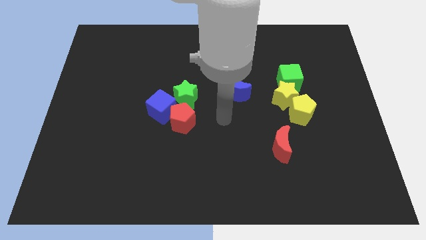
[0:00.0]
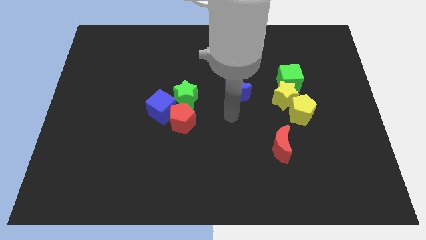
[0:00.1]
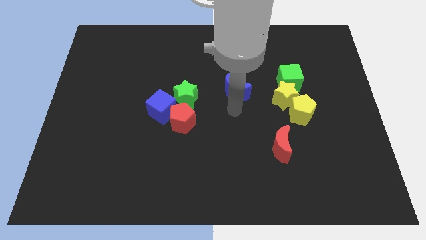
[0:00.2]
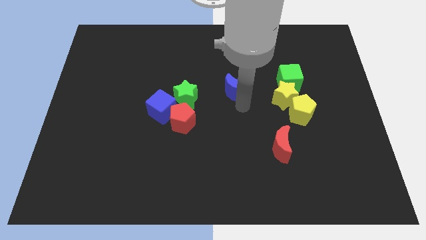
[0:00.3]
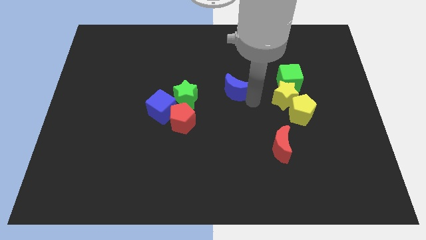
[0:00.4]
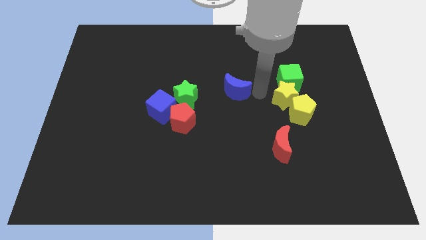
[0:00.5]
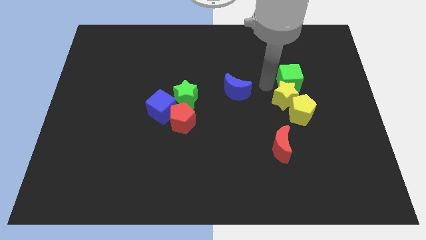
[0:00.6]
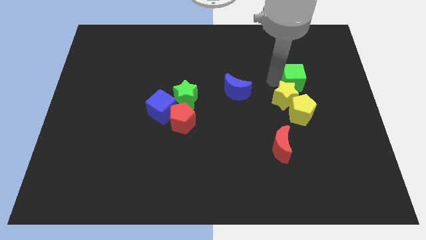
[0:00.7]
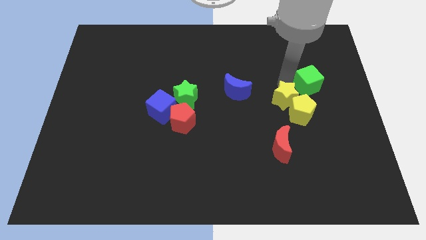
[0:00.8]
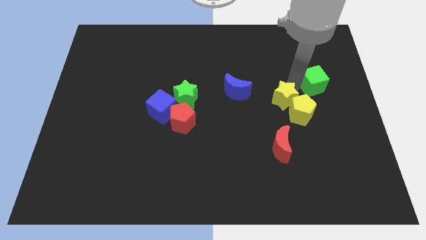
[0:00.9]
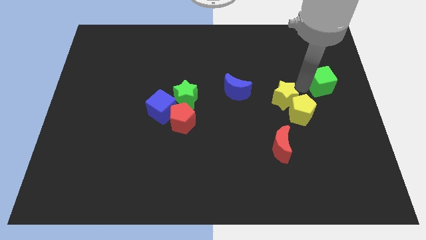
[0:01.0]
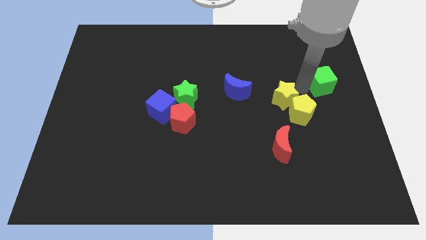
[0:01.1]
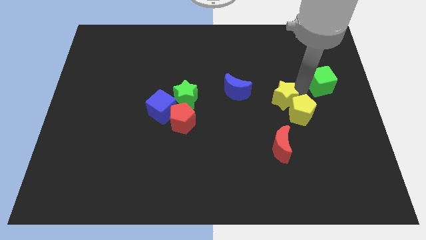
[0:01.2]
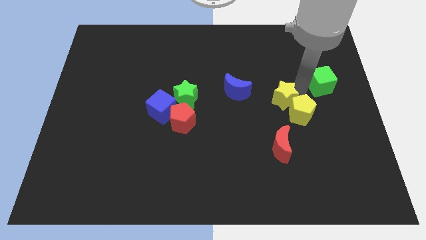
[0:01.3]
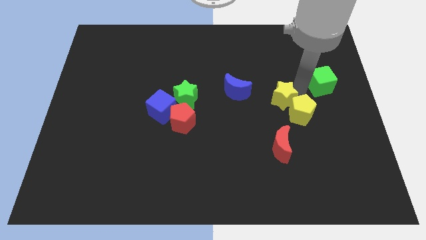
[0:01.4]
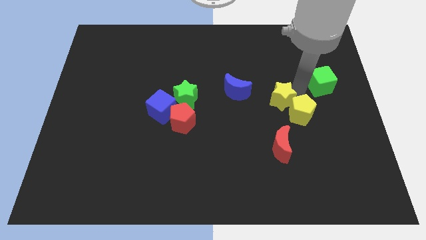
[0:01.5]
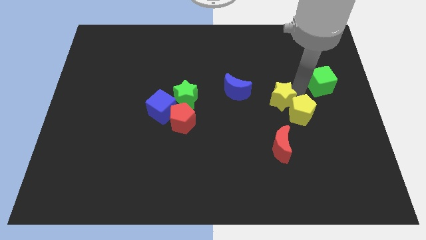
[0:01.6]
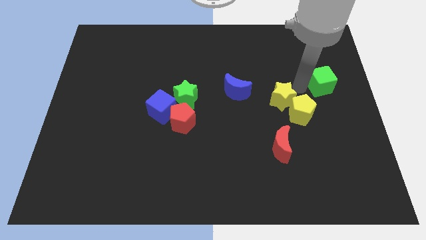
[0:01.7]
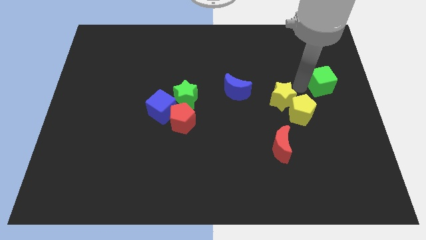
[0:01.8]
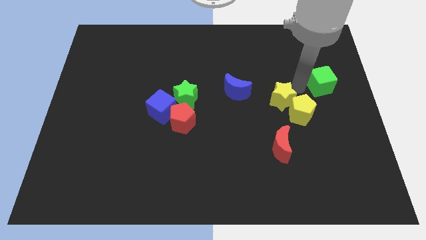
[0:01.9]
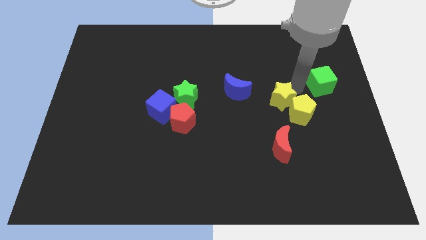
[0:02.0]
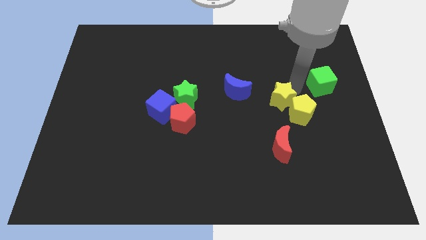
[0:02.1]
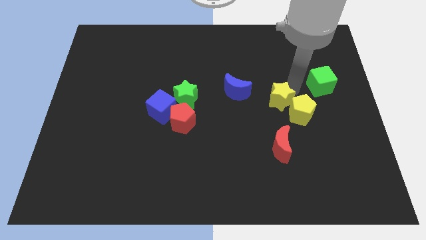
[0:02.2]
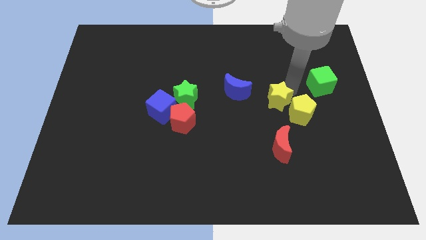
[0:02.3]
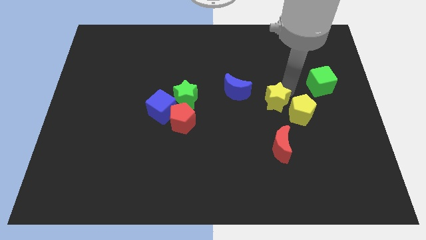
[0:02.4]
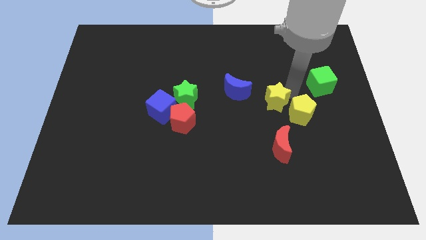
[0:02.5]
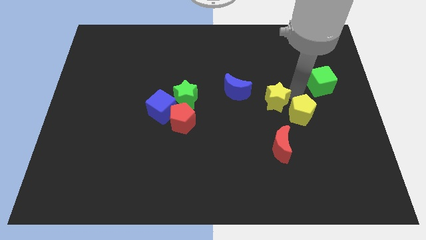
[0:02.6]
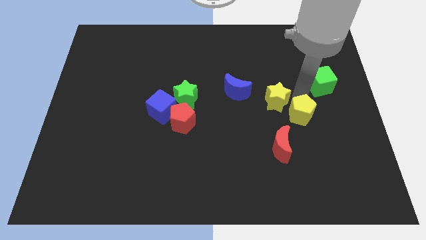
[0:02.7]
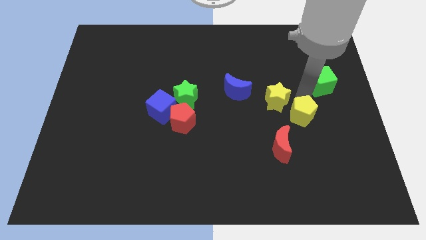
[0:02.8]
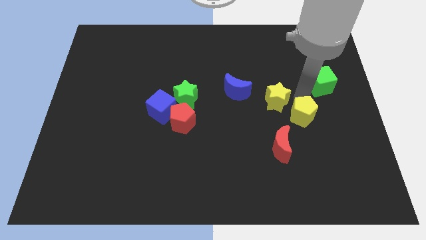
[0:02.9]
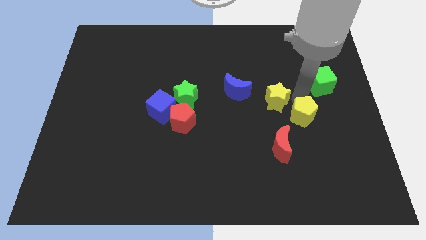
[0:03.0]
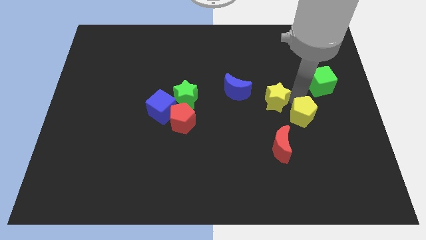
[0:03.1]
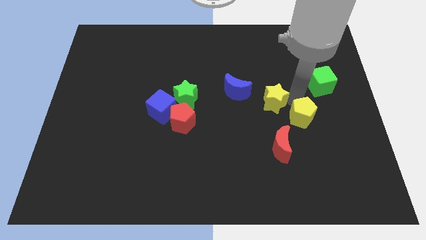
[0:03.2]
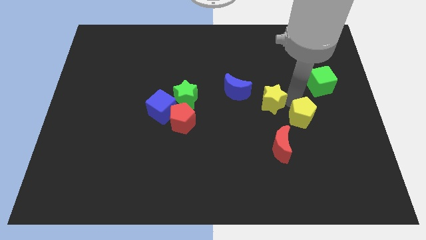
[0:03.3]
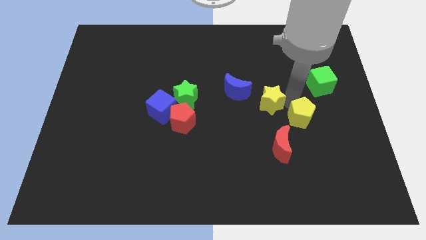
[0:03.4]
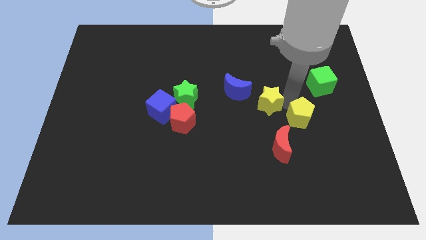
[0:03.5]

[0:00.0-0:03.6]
move the yellow star away from the yellow pentagon and green cube

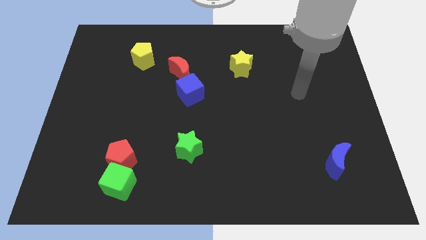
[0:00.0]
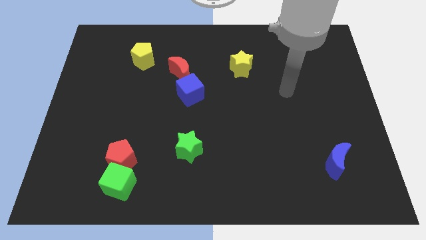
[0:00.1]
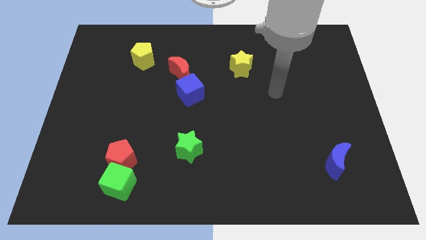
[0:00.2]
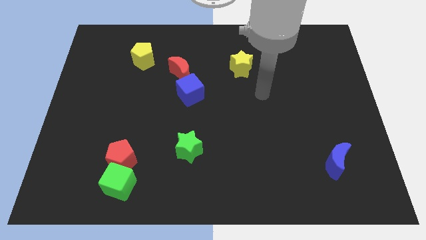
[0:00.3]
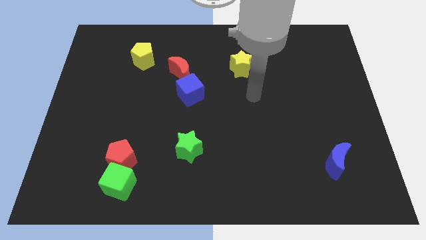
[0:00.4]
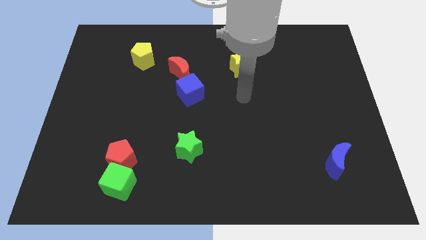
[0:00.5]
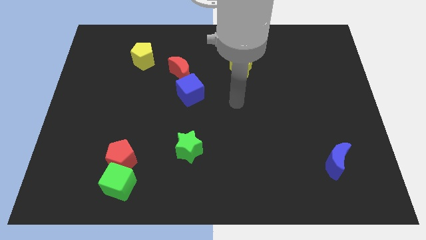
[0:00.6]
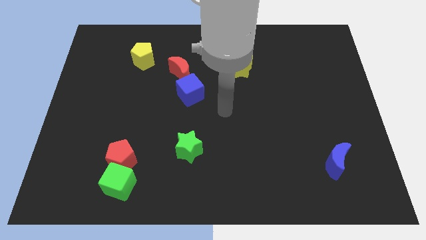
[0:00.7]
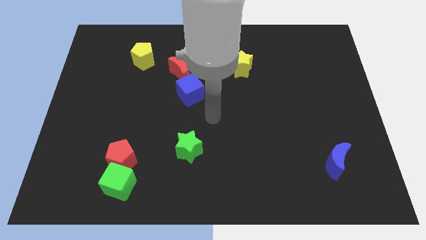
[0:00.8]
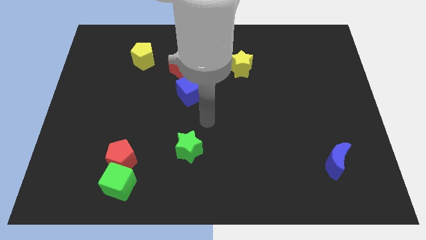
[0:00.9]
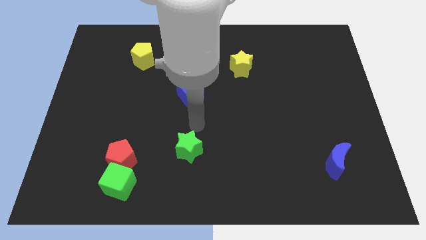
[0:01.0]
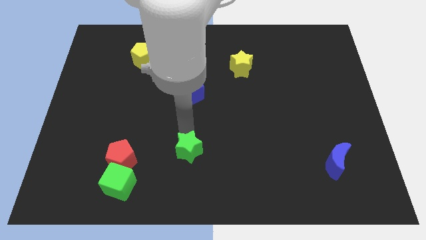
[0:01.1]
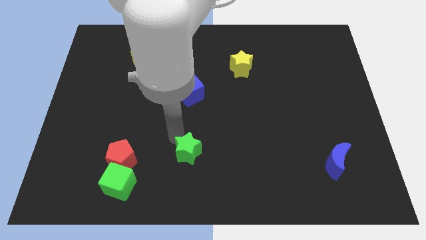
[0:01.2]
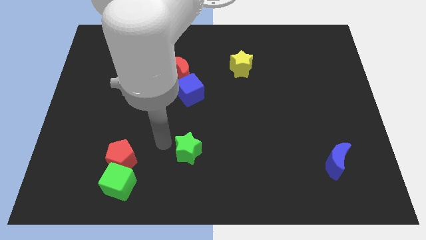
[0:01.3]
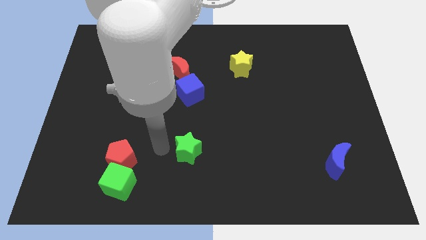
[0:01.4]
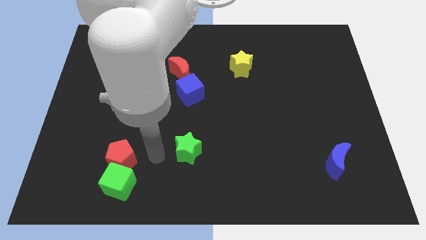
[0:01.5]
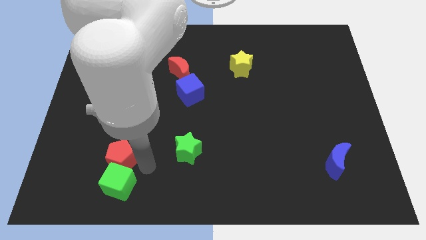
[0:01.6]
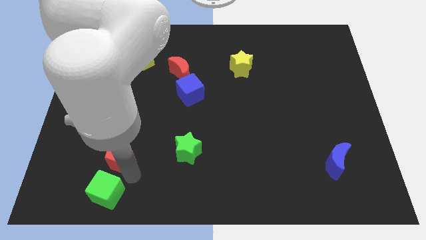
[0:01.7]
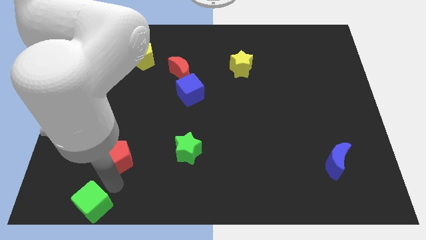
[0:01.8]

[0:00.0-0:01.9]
move the red pentagon away from the green cube

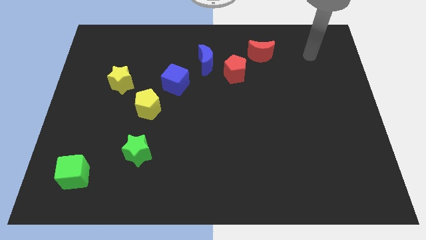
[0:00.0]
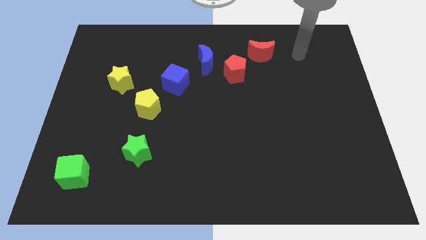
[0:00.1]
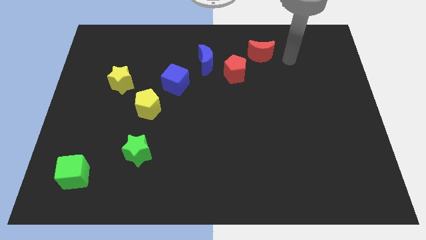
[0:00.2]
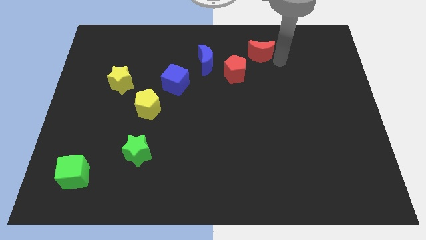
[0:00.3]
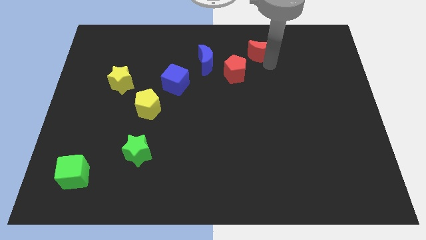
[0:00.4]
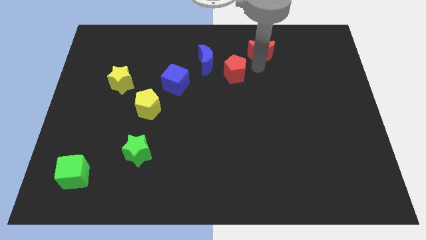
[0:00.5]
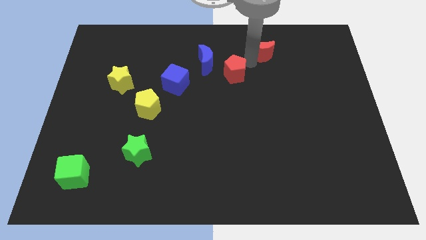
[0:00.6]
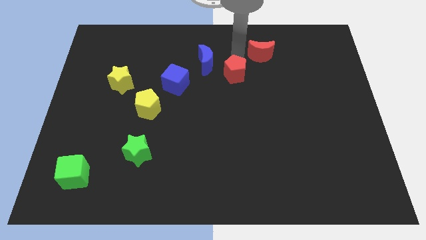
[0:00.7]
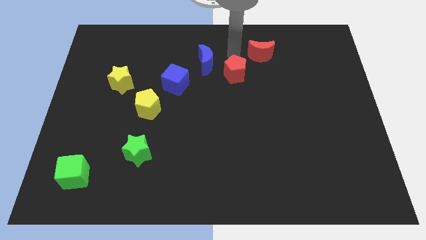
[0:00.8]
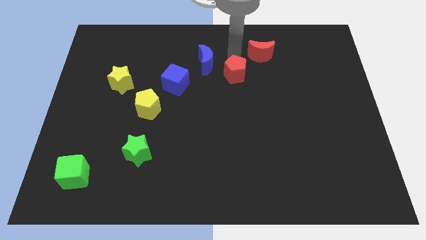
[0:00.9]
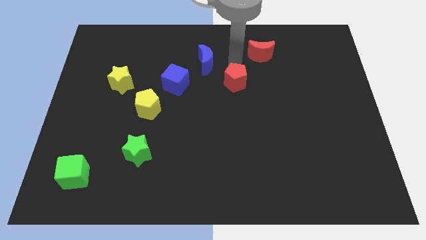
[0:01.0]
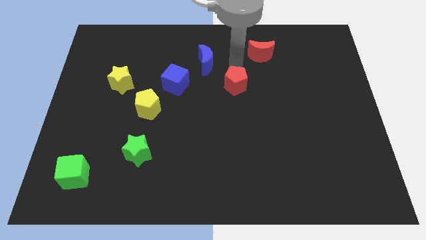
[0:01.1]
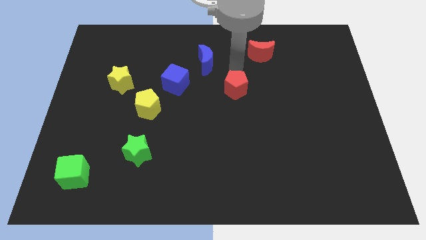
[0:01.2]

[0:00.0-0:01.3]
separate the red pentagon from the blue moon and red moon

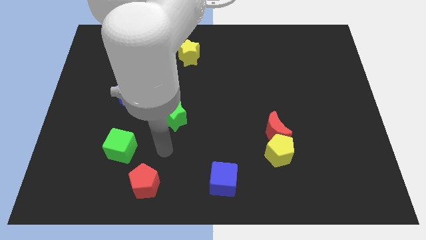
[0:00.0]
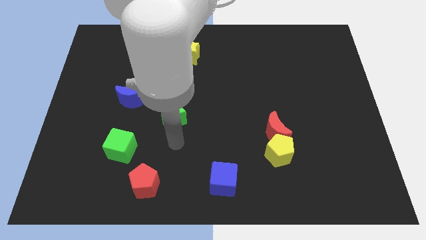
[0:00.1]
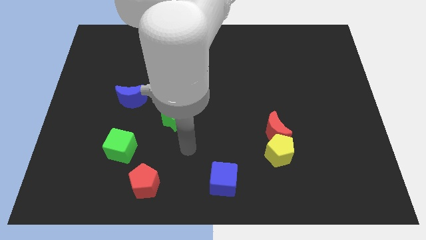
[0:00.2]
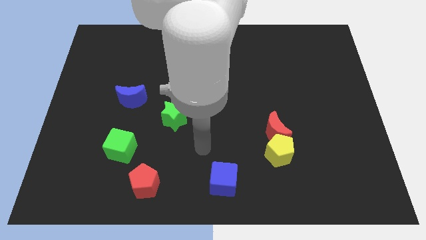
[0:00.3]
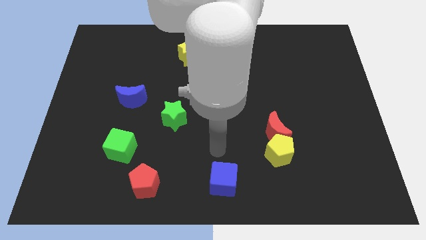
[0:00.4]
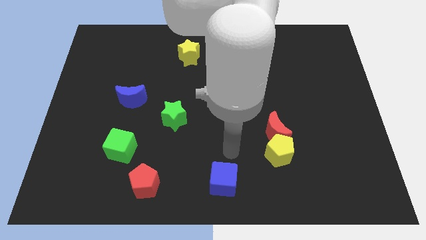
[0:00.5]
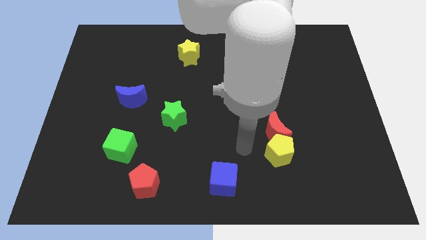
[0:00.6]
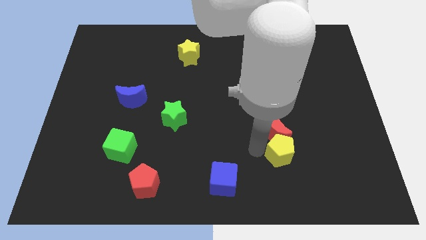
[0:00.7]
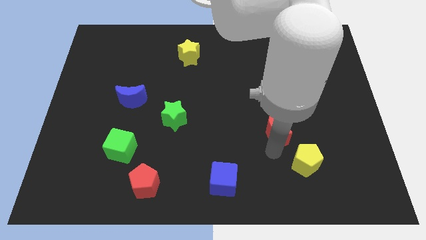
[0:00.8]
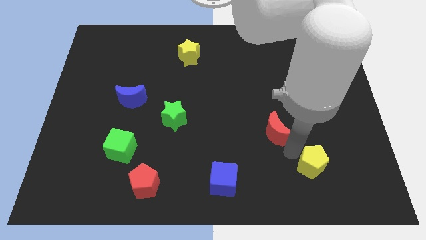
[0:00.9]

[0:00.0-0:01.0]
separate the red moon from the yellow pentagon

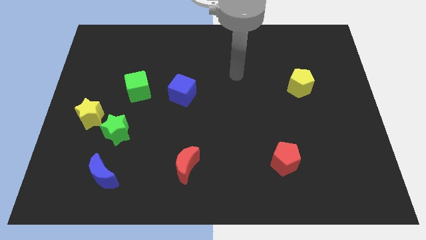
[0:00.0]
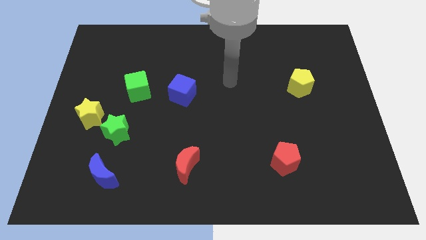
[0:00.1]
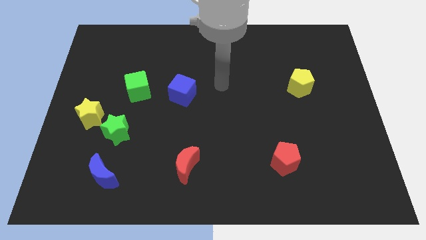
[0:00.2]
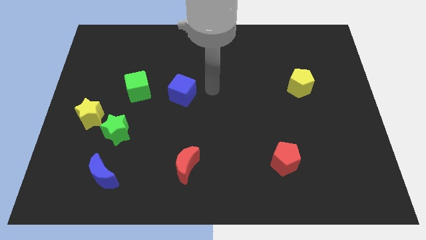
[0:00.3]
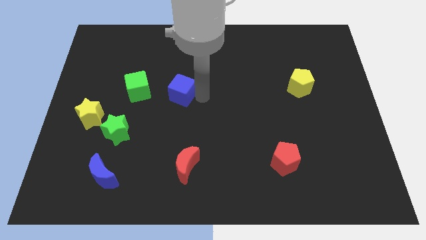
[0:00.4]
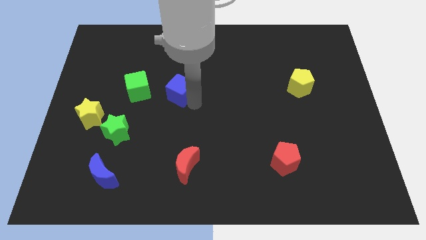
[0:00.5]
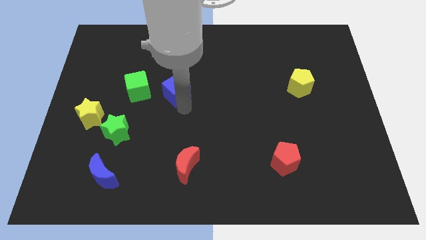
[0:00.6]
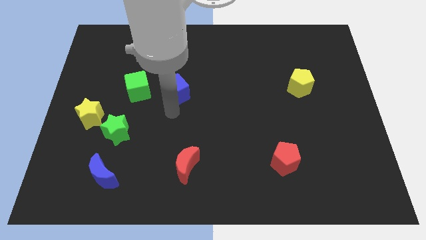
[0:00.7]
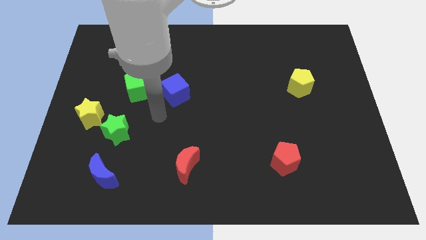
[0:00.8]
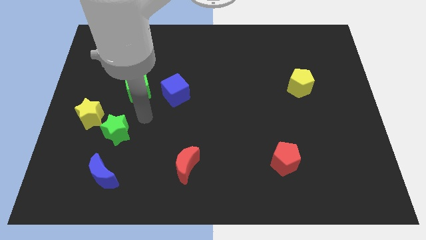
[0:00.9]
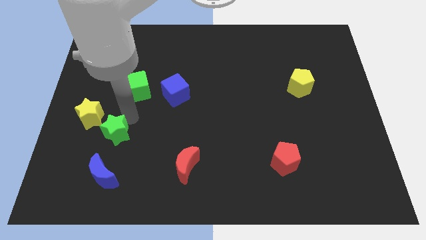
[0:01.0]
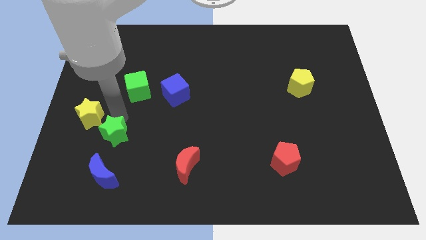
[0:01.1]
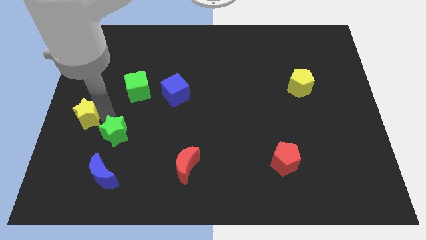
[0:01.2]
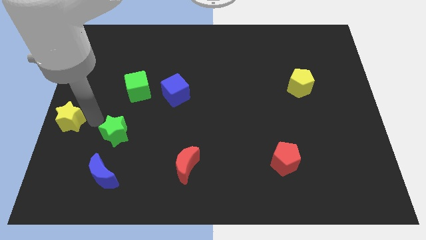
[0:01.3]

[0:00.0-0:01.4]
move the green star away from the yellow star
